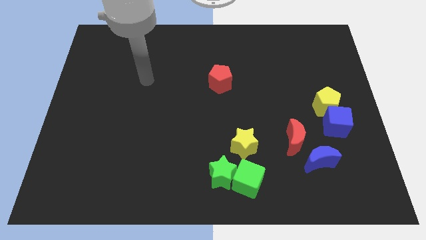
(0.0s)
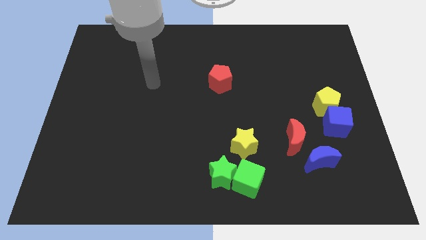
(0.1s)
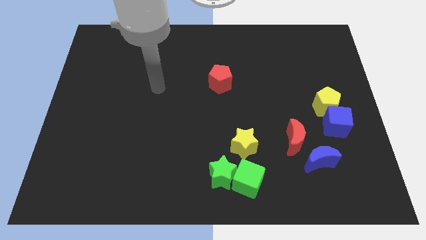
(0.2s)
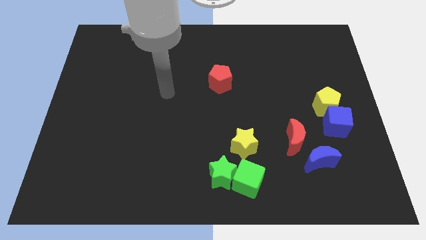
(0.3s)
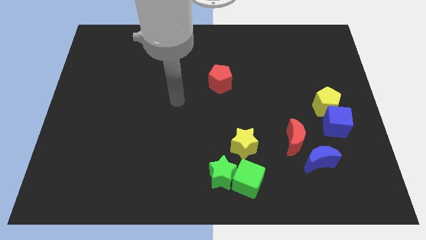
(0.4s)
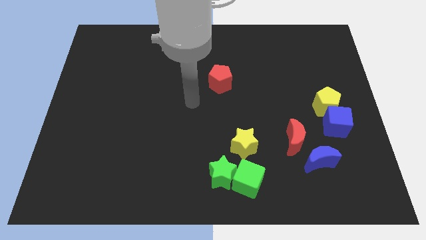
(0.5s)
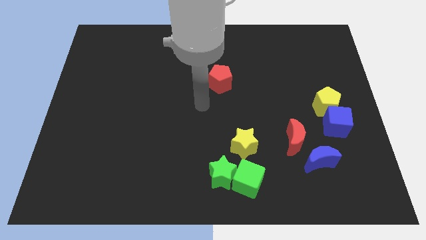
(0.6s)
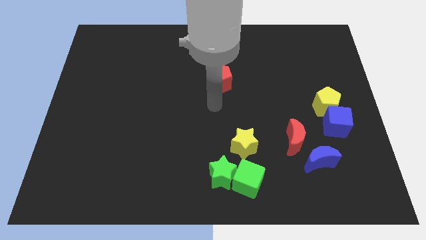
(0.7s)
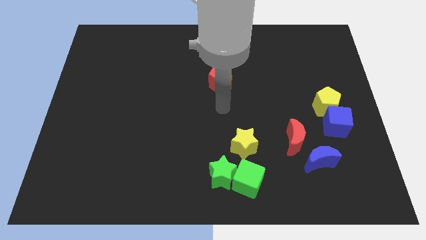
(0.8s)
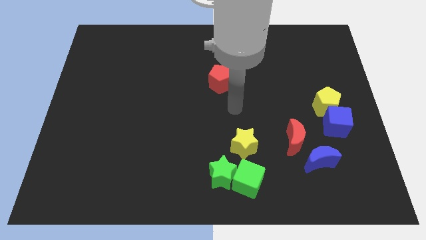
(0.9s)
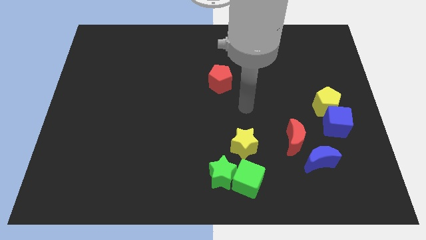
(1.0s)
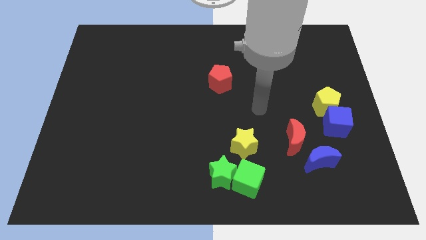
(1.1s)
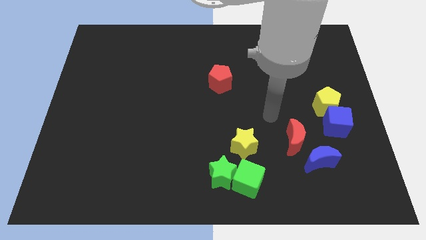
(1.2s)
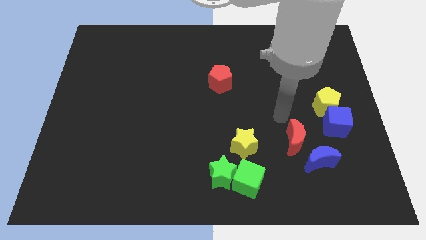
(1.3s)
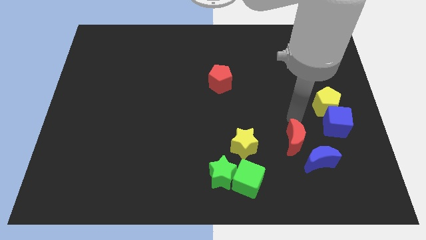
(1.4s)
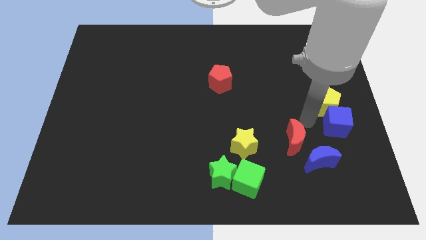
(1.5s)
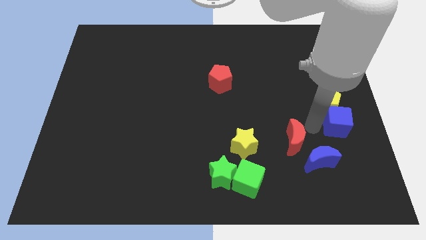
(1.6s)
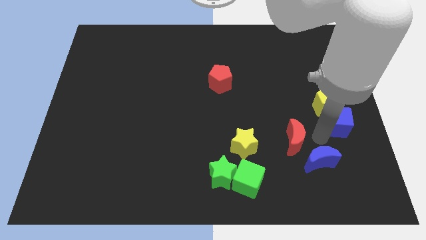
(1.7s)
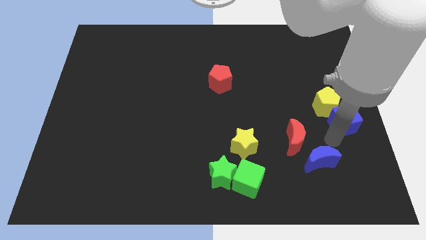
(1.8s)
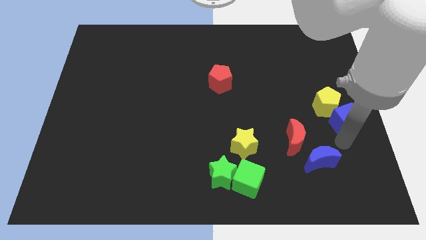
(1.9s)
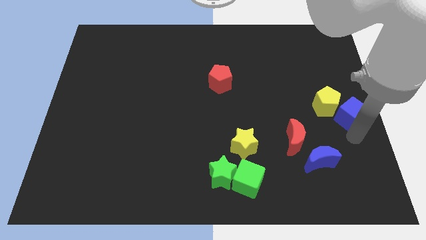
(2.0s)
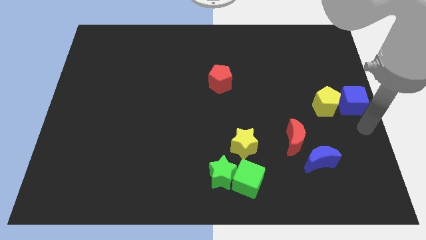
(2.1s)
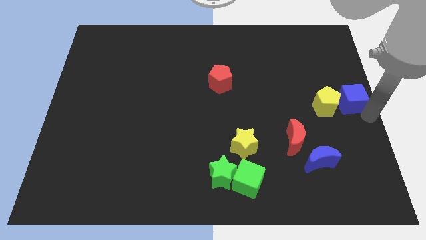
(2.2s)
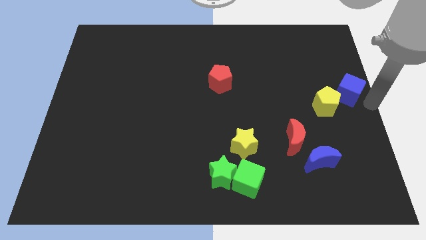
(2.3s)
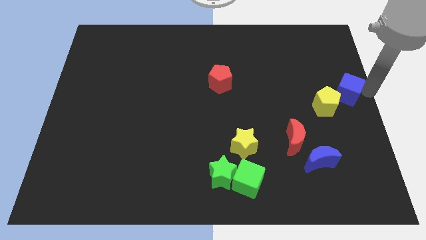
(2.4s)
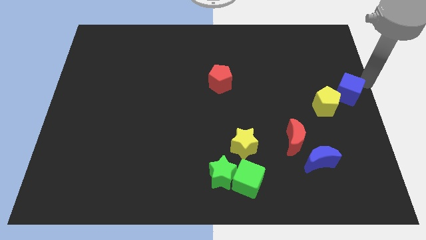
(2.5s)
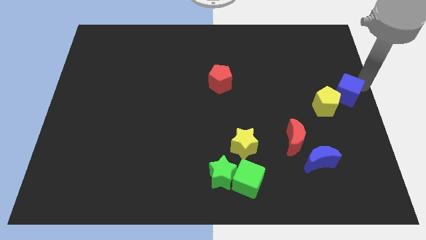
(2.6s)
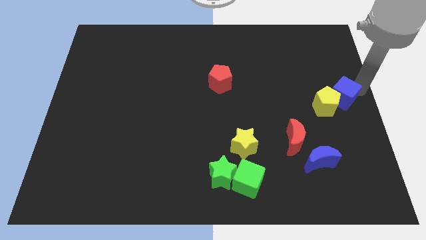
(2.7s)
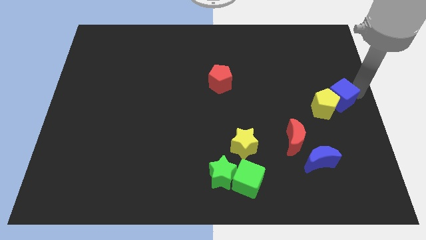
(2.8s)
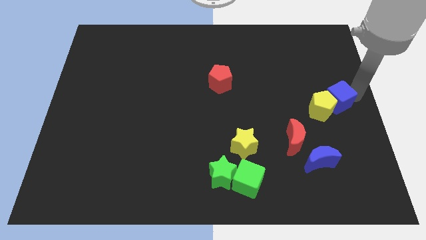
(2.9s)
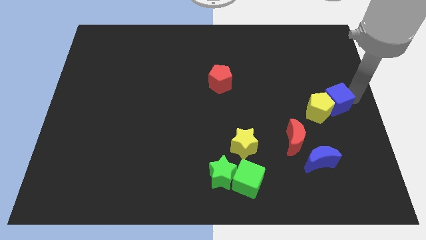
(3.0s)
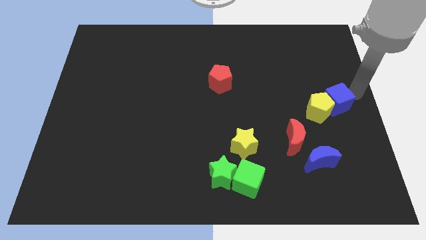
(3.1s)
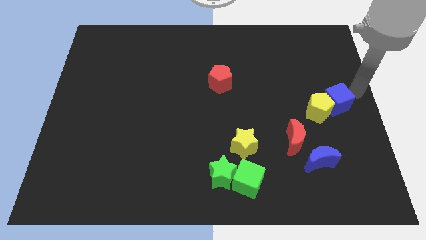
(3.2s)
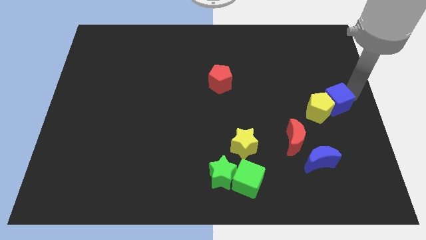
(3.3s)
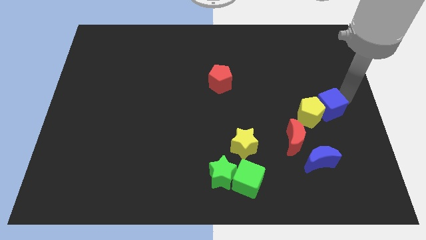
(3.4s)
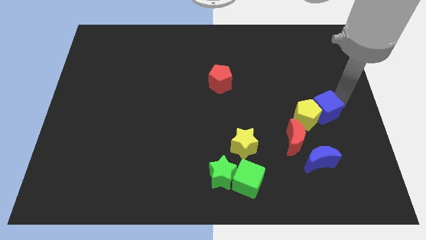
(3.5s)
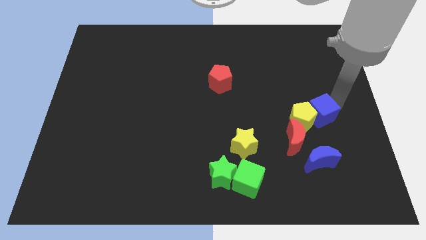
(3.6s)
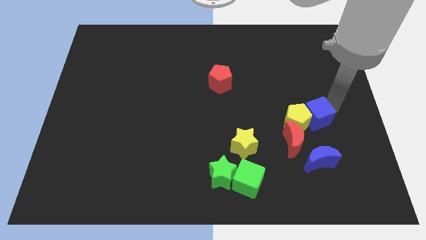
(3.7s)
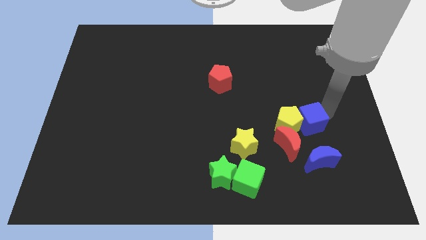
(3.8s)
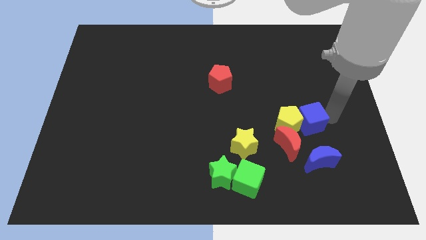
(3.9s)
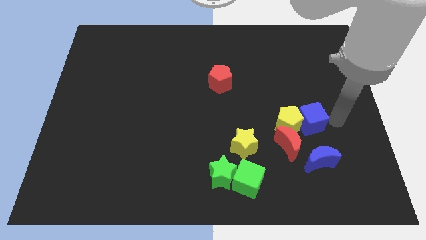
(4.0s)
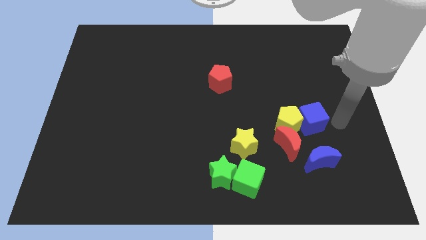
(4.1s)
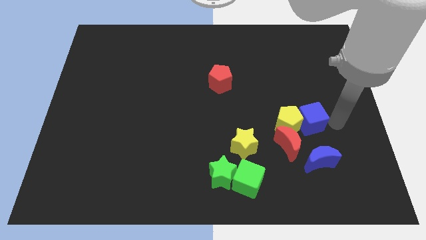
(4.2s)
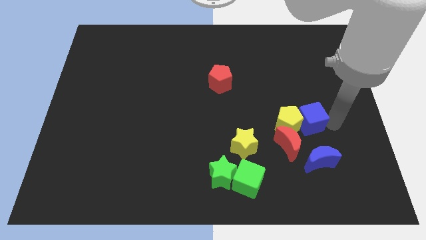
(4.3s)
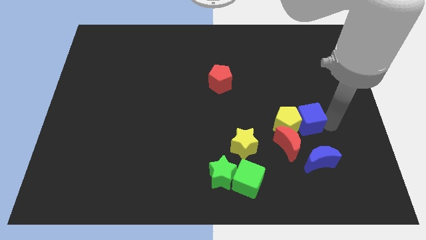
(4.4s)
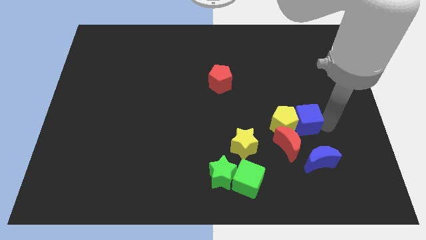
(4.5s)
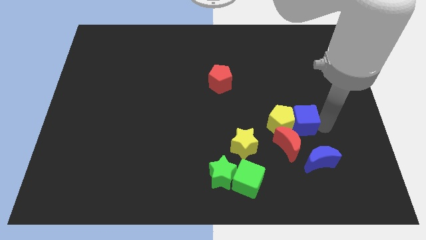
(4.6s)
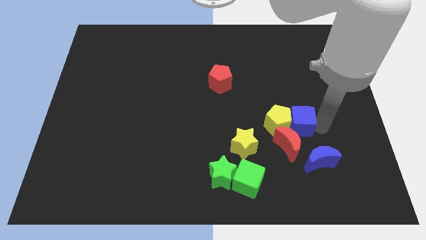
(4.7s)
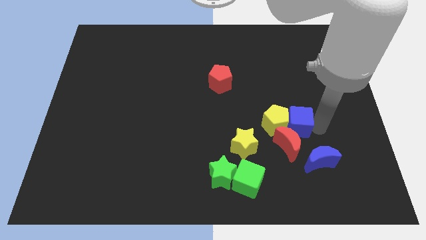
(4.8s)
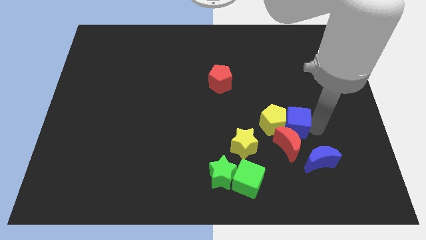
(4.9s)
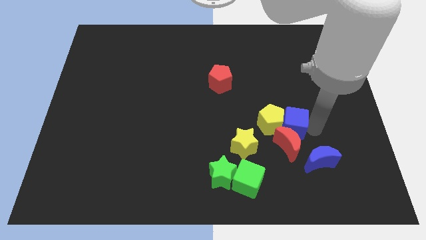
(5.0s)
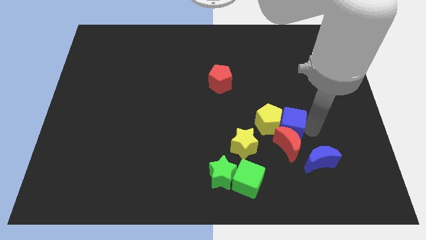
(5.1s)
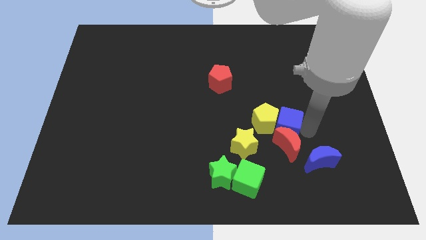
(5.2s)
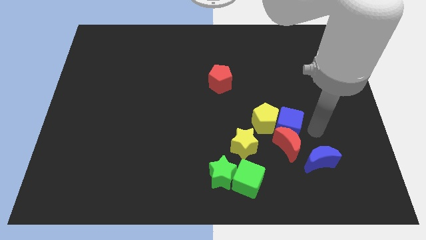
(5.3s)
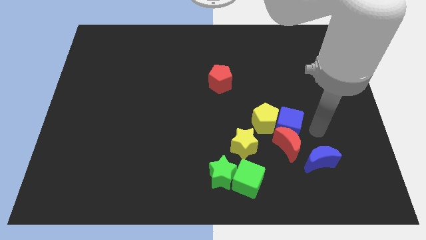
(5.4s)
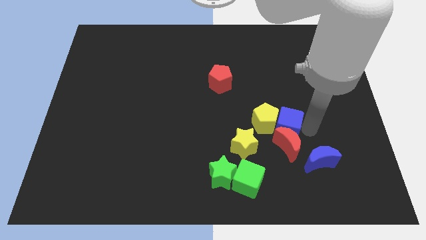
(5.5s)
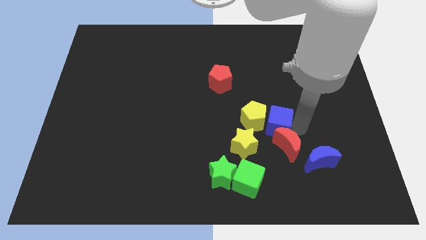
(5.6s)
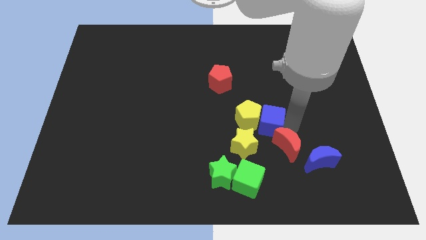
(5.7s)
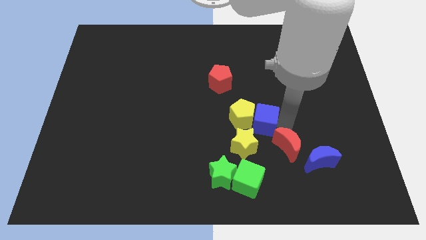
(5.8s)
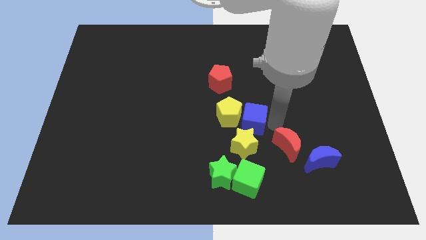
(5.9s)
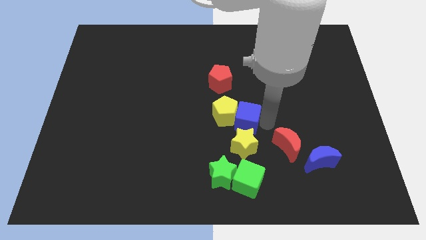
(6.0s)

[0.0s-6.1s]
push the blue cube left

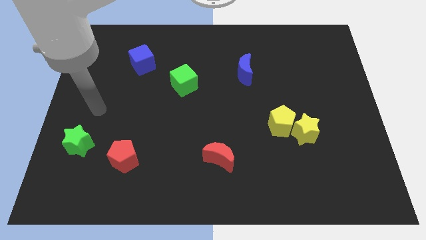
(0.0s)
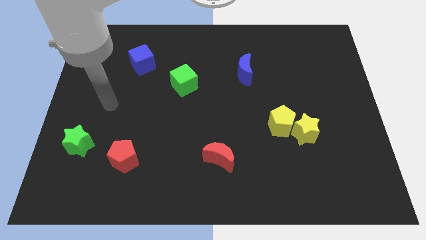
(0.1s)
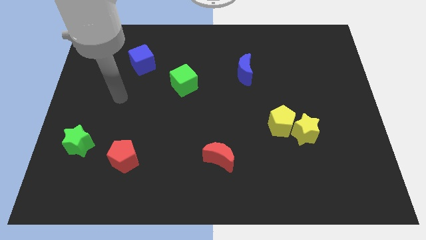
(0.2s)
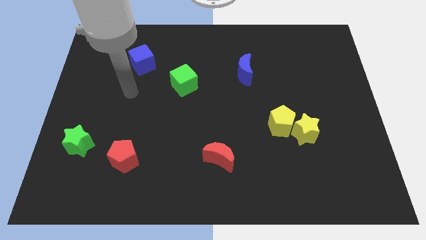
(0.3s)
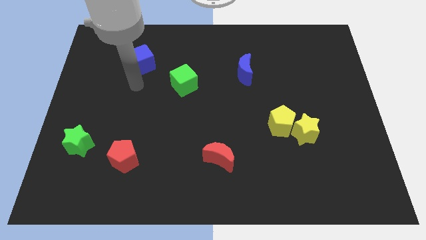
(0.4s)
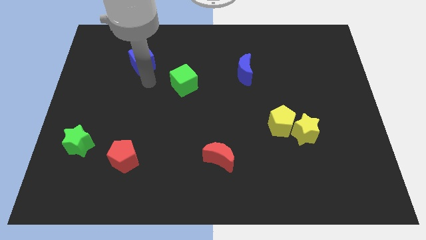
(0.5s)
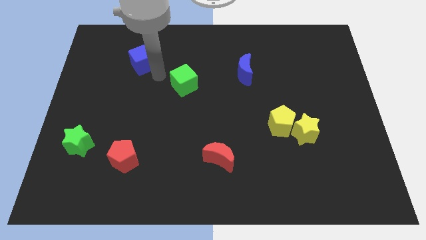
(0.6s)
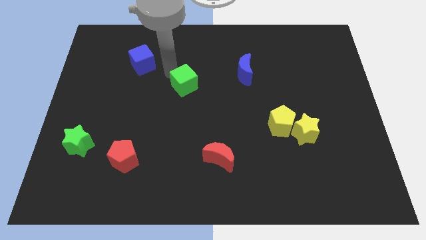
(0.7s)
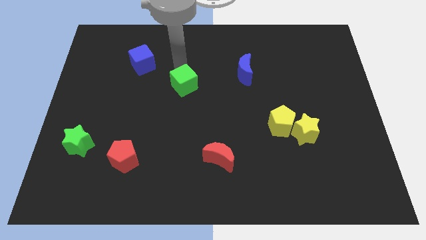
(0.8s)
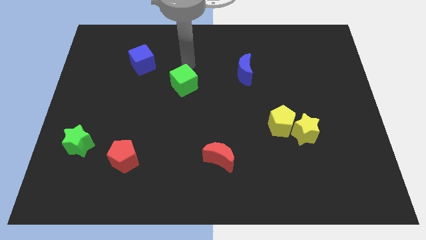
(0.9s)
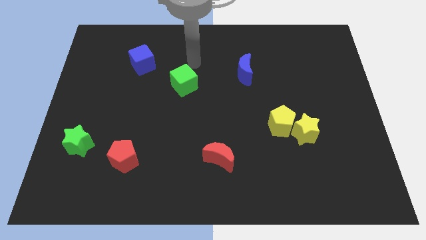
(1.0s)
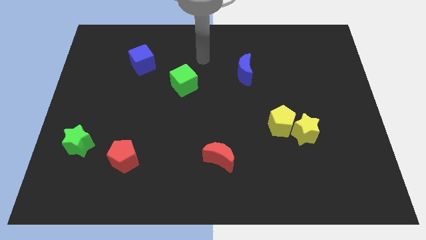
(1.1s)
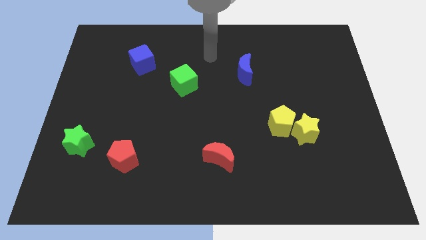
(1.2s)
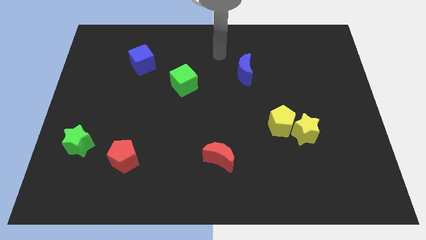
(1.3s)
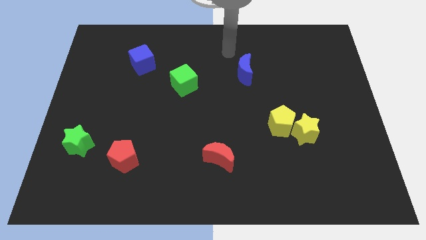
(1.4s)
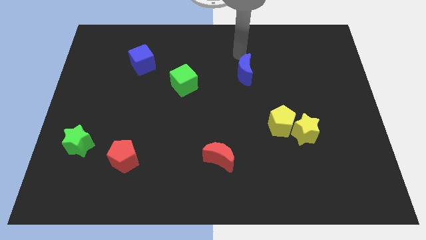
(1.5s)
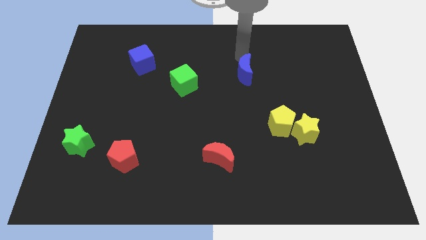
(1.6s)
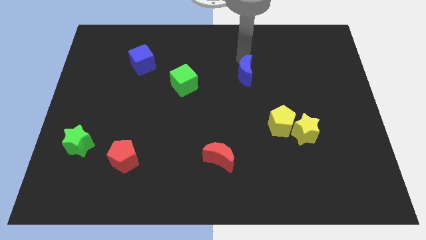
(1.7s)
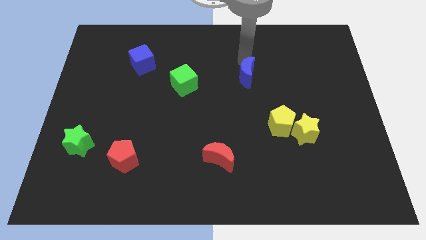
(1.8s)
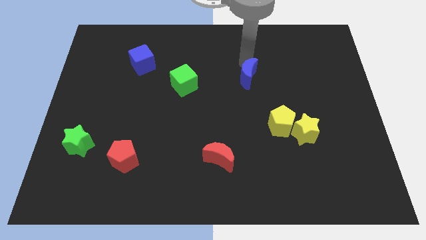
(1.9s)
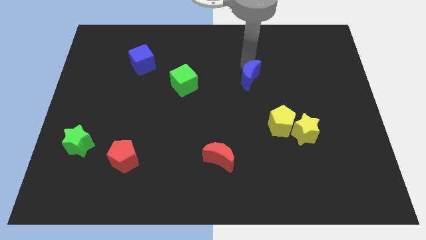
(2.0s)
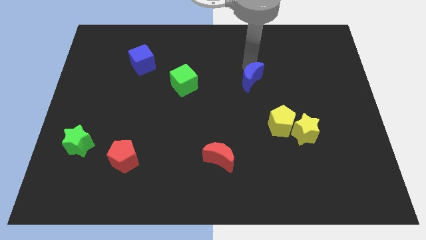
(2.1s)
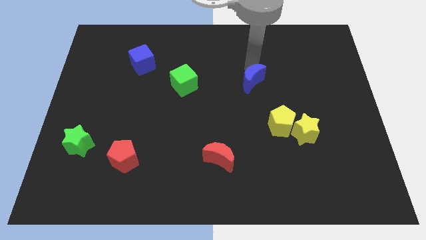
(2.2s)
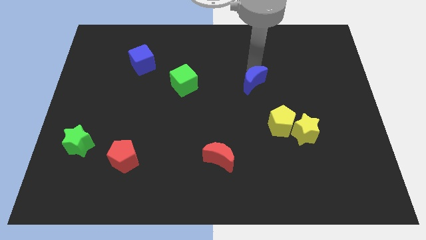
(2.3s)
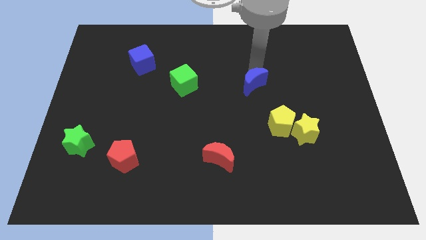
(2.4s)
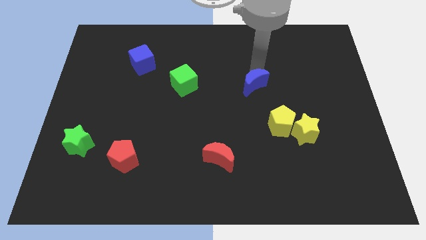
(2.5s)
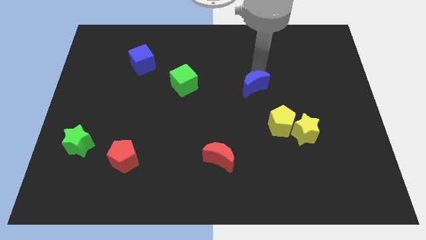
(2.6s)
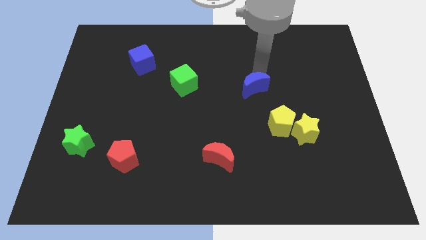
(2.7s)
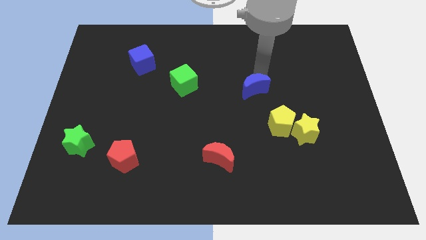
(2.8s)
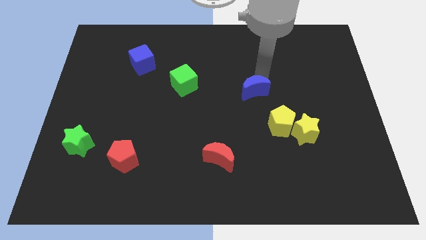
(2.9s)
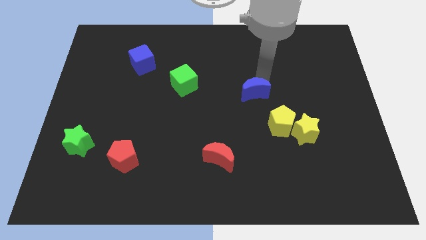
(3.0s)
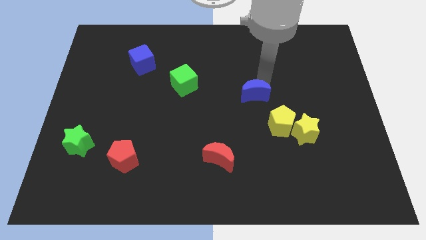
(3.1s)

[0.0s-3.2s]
move the blue moon somewhat down
